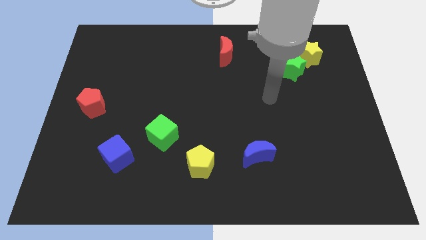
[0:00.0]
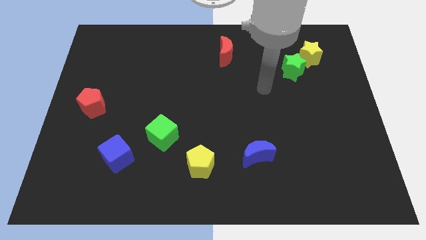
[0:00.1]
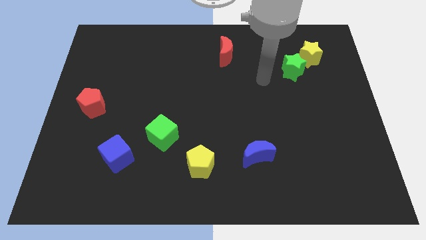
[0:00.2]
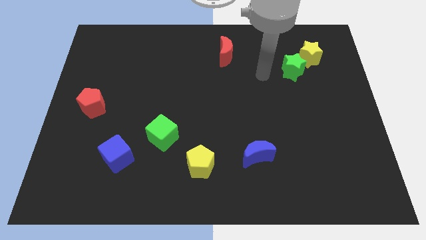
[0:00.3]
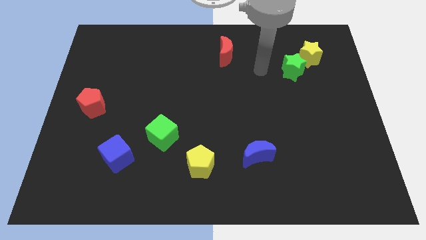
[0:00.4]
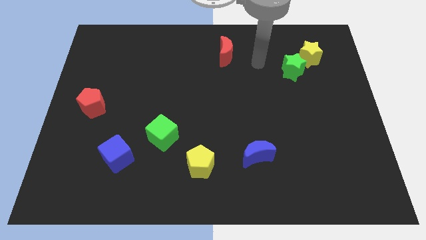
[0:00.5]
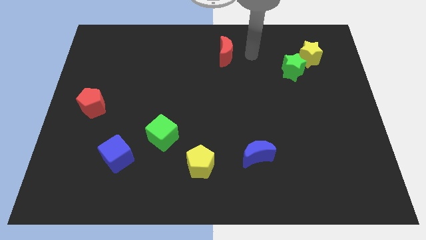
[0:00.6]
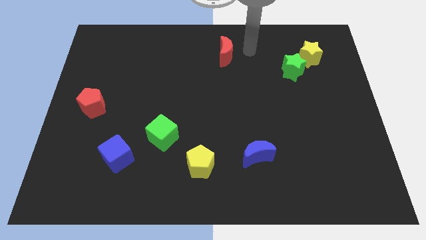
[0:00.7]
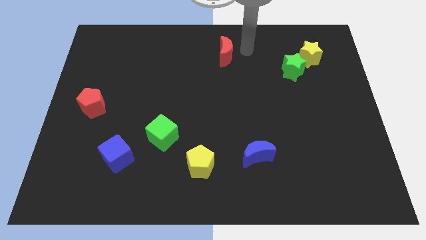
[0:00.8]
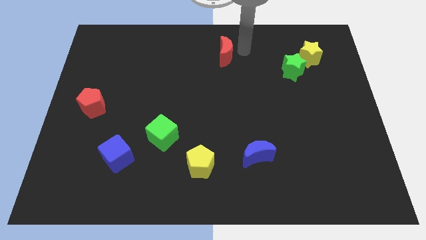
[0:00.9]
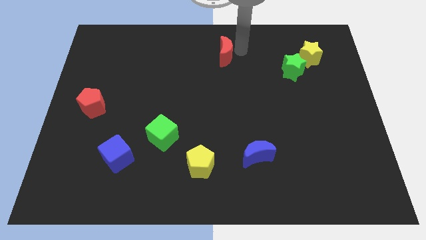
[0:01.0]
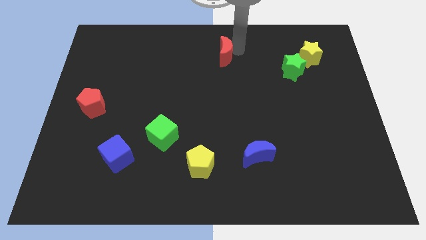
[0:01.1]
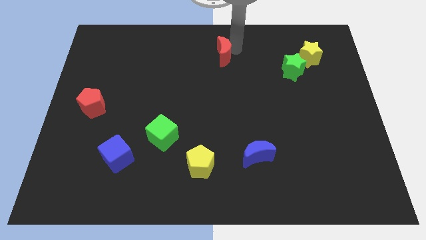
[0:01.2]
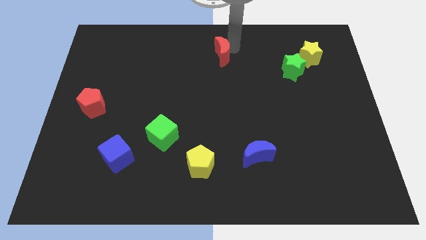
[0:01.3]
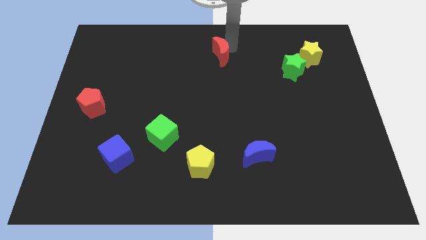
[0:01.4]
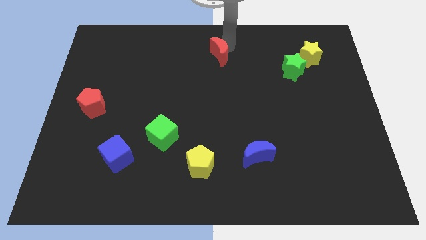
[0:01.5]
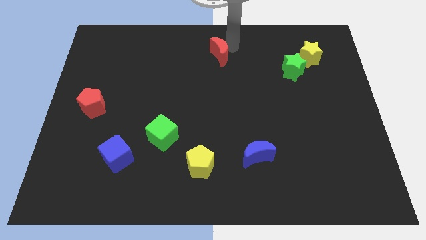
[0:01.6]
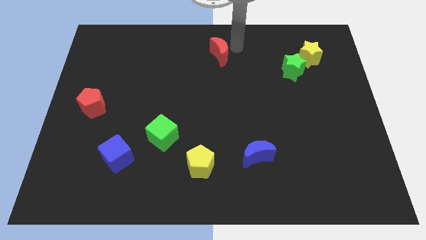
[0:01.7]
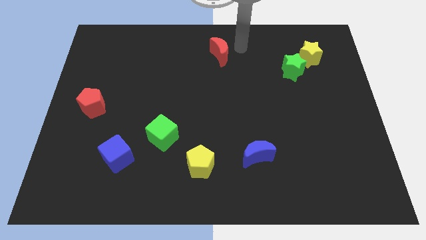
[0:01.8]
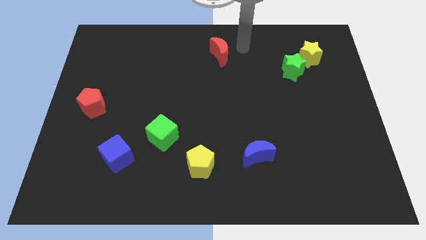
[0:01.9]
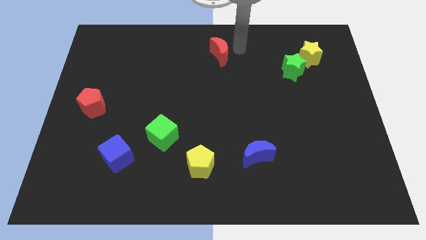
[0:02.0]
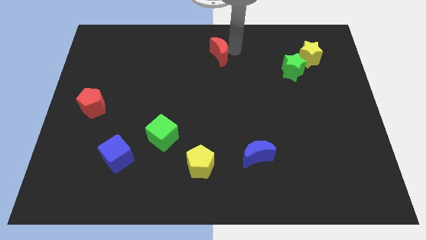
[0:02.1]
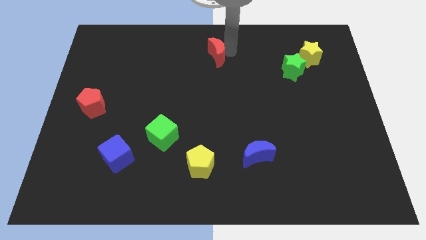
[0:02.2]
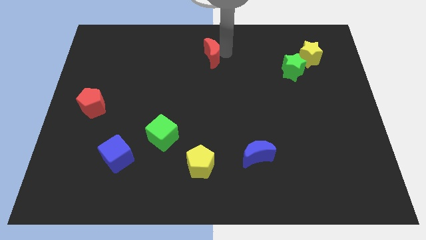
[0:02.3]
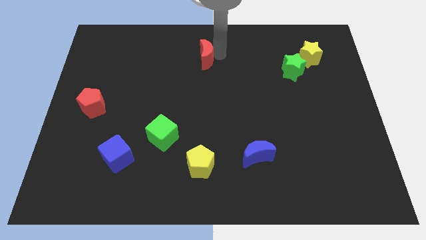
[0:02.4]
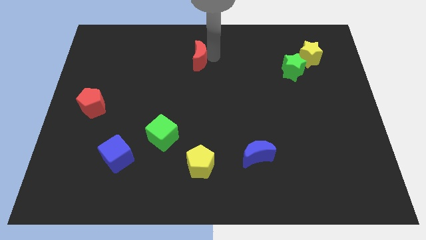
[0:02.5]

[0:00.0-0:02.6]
slightly slide the red moon left

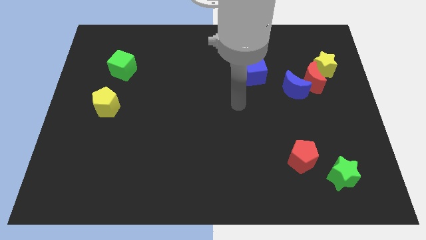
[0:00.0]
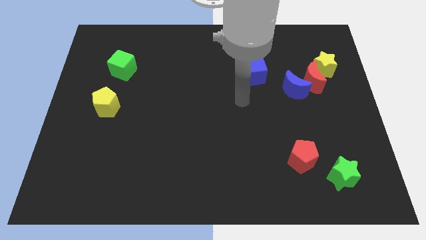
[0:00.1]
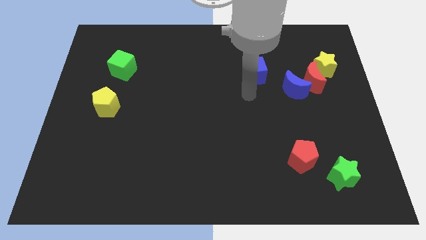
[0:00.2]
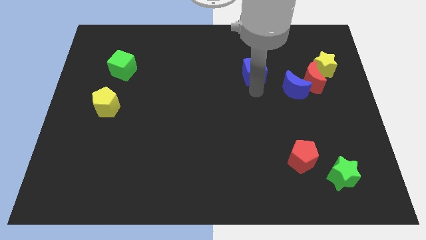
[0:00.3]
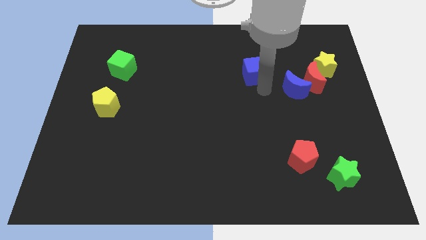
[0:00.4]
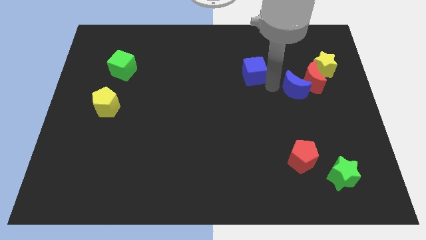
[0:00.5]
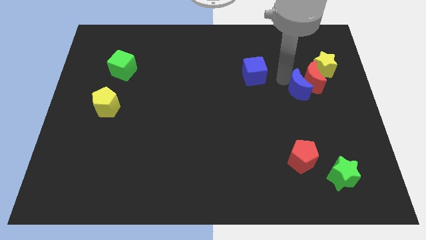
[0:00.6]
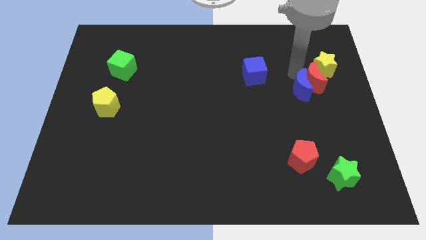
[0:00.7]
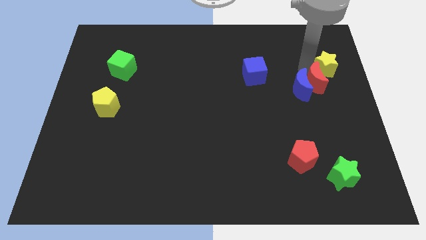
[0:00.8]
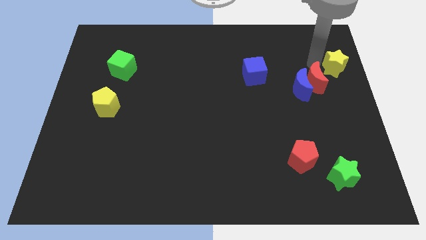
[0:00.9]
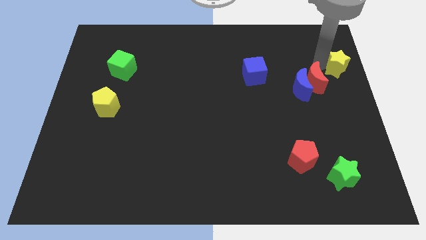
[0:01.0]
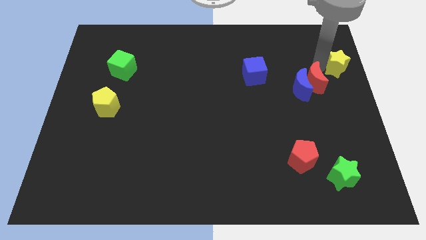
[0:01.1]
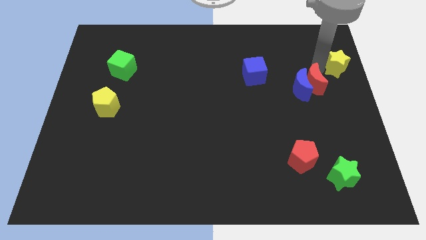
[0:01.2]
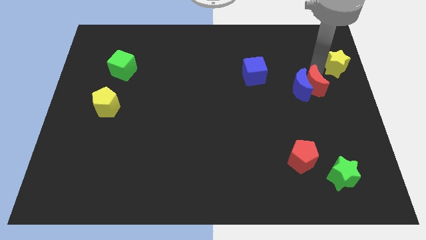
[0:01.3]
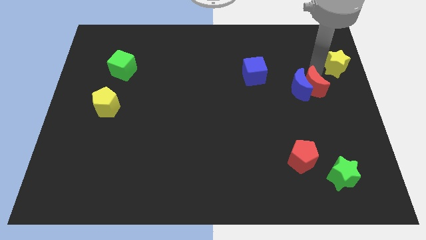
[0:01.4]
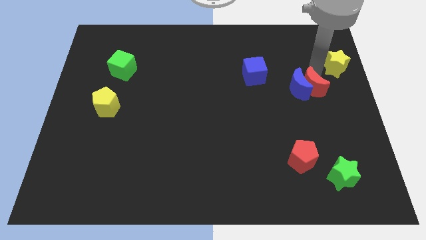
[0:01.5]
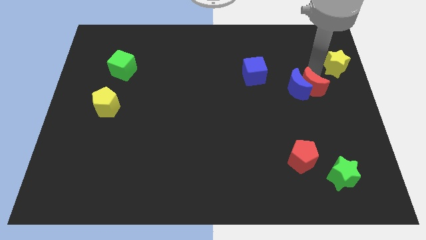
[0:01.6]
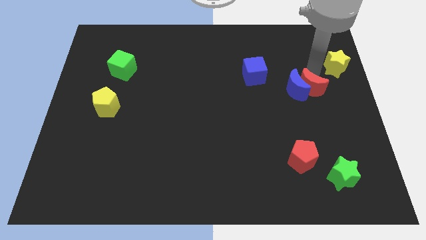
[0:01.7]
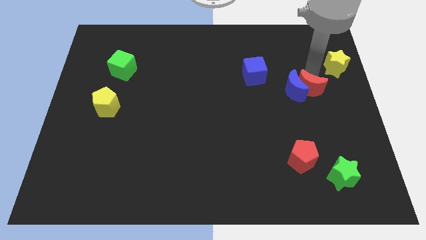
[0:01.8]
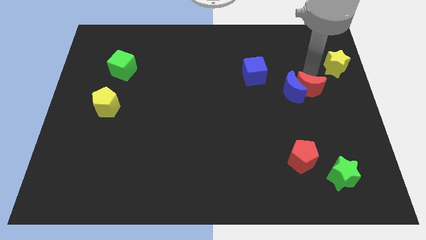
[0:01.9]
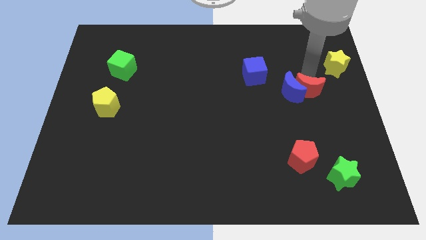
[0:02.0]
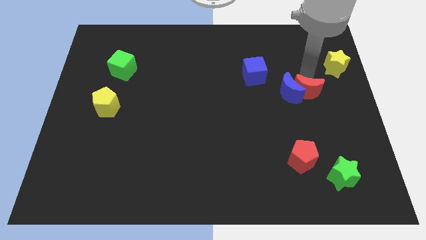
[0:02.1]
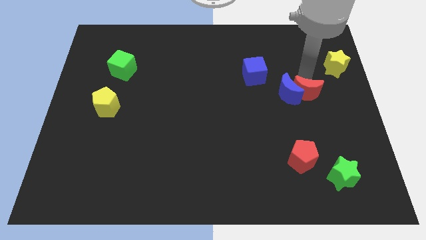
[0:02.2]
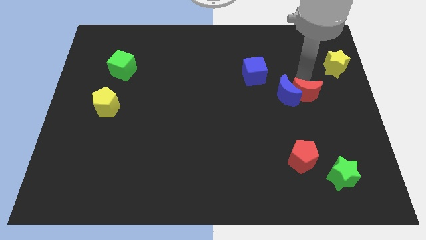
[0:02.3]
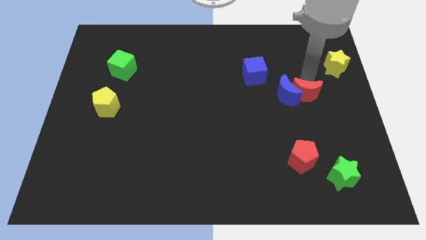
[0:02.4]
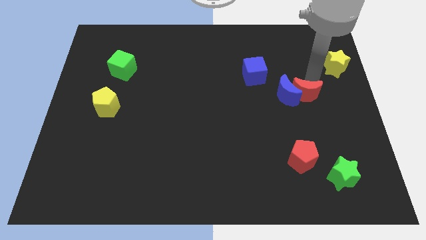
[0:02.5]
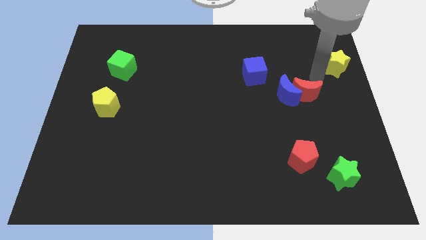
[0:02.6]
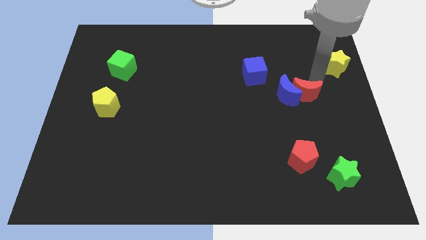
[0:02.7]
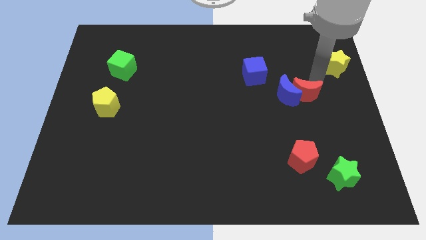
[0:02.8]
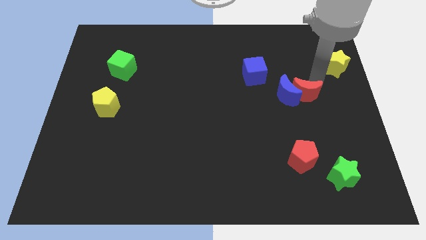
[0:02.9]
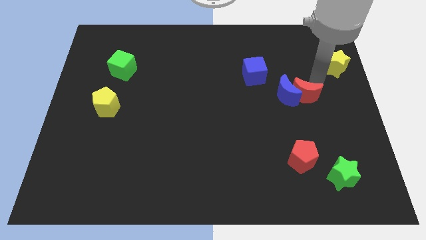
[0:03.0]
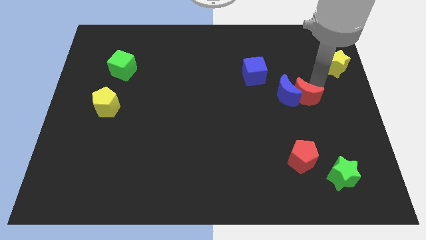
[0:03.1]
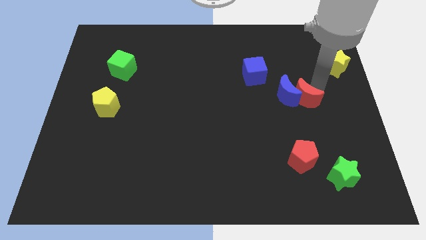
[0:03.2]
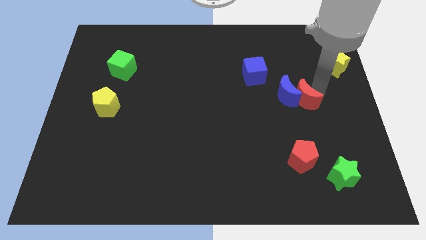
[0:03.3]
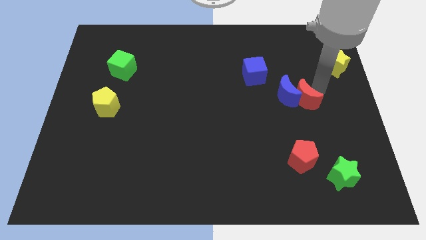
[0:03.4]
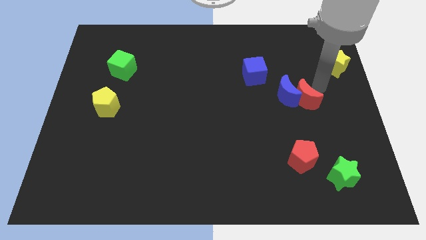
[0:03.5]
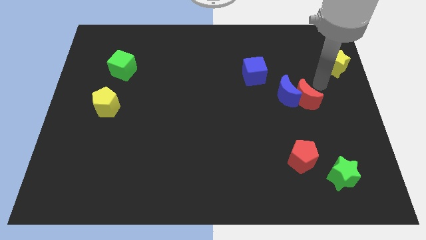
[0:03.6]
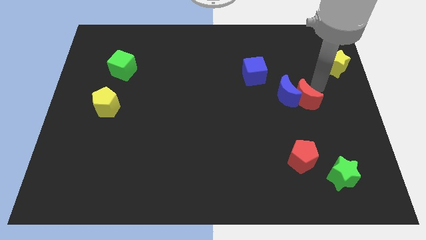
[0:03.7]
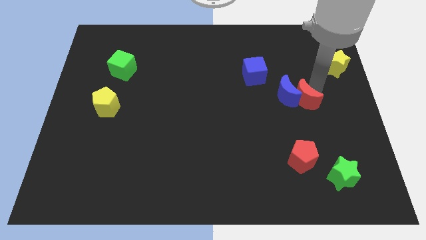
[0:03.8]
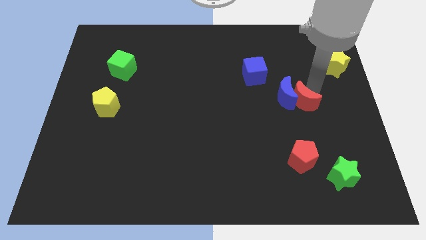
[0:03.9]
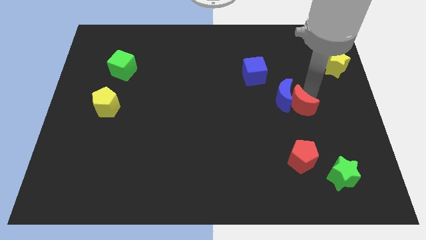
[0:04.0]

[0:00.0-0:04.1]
push the red moon downwards and then left slightly

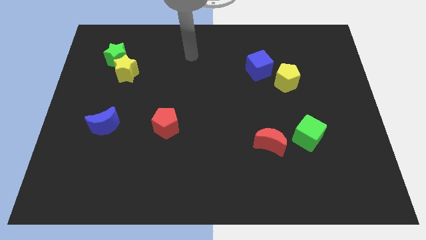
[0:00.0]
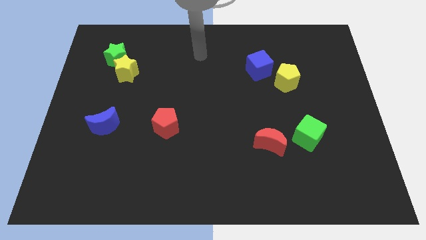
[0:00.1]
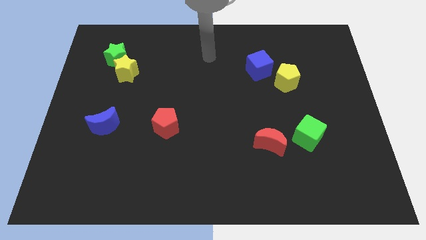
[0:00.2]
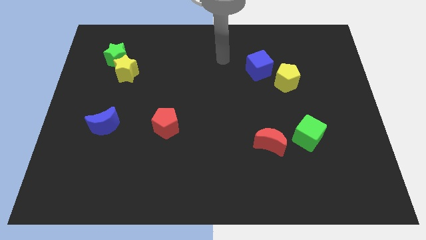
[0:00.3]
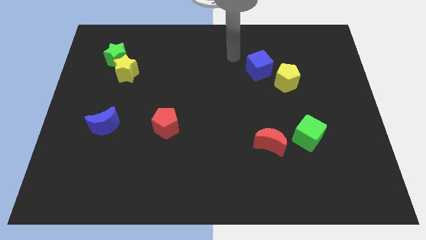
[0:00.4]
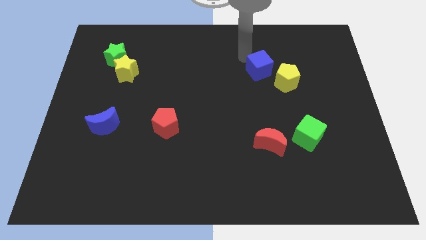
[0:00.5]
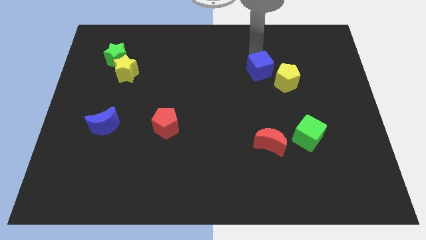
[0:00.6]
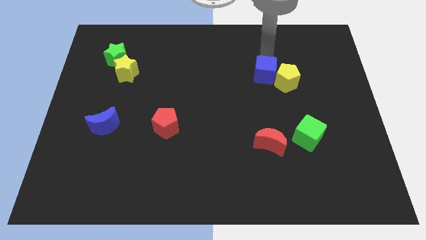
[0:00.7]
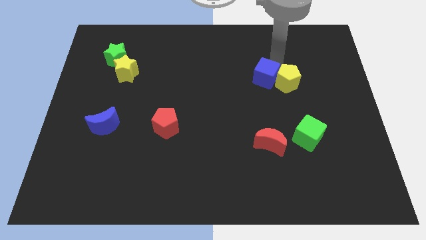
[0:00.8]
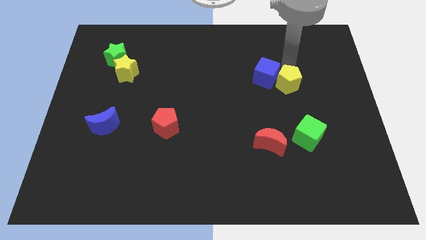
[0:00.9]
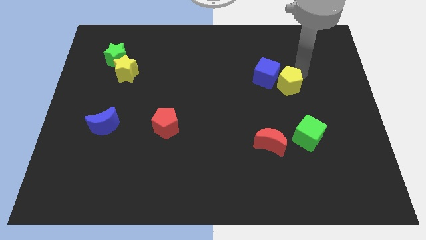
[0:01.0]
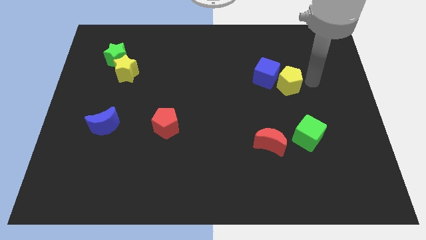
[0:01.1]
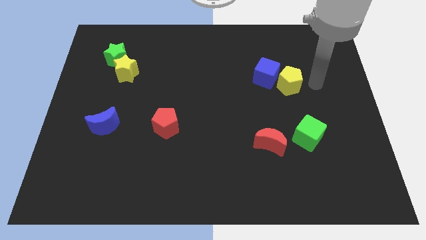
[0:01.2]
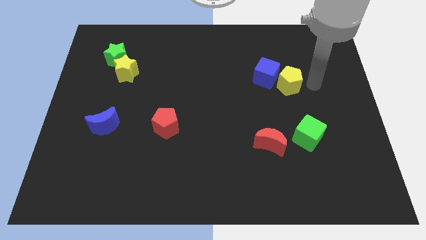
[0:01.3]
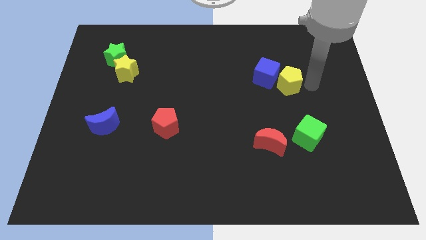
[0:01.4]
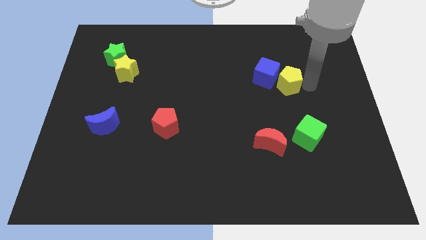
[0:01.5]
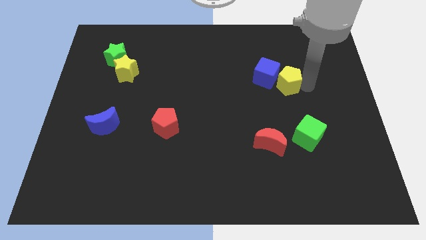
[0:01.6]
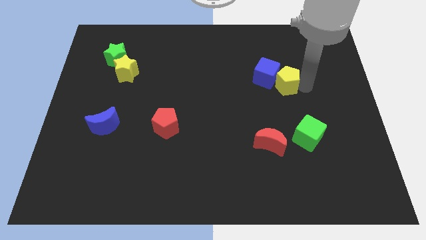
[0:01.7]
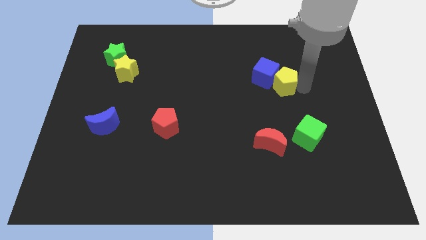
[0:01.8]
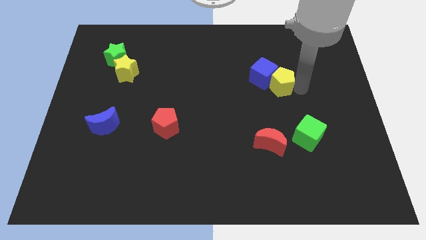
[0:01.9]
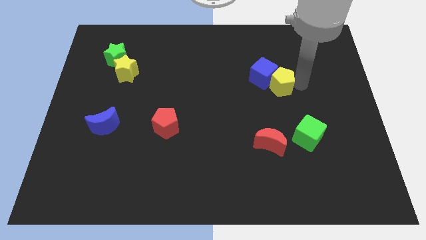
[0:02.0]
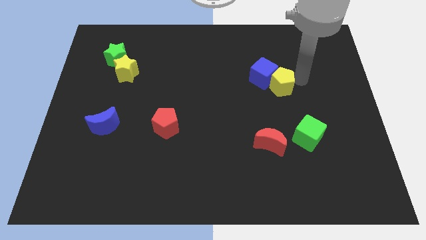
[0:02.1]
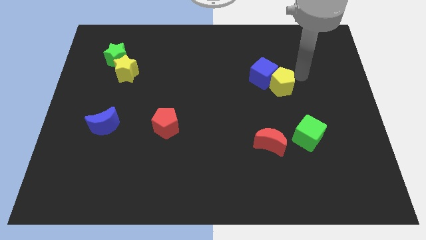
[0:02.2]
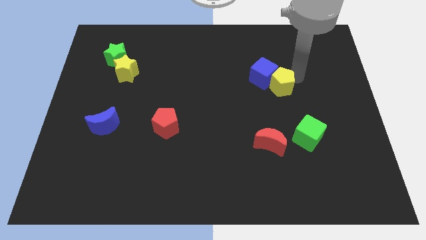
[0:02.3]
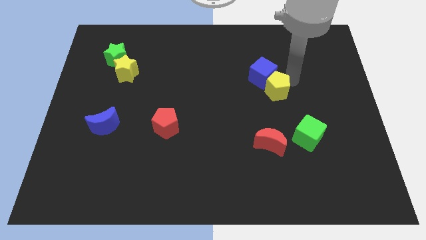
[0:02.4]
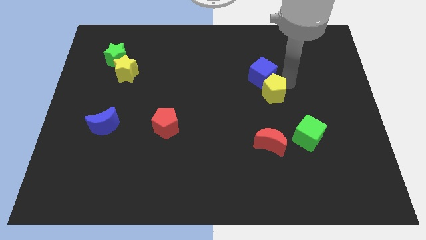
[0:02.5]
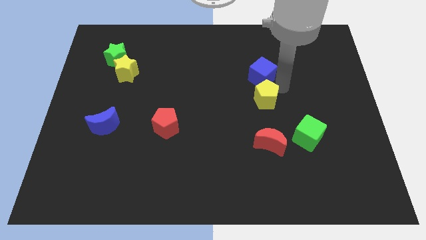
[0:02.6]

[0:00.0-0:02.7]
slightly push the yellow pentagon down and left
